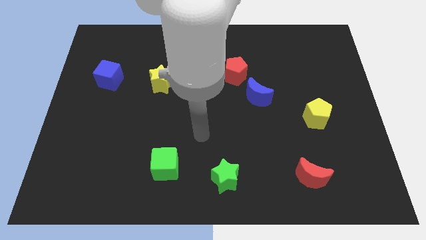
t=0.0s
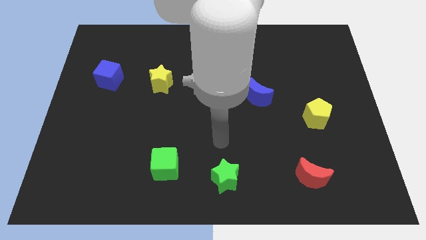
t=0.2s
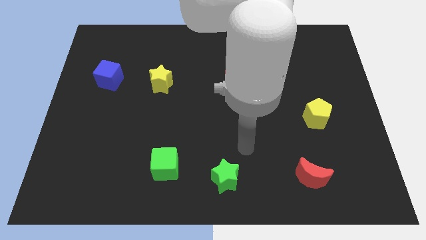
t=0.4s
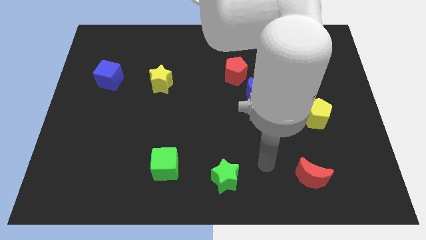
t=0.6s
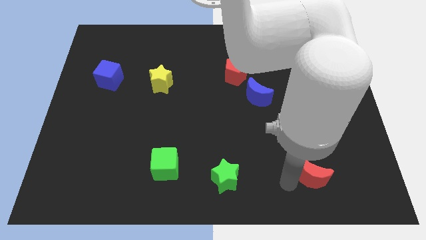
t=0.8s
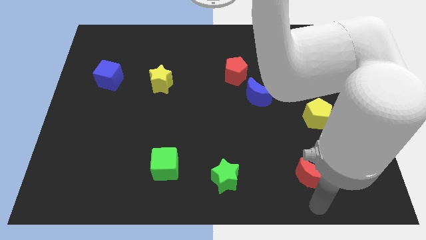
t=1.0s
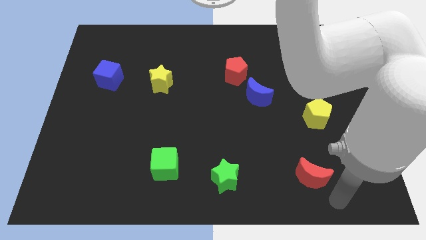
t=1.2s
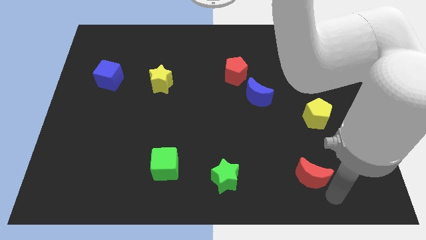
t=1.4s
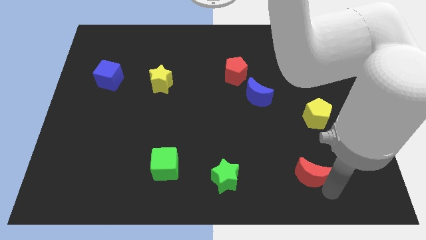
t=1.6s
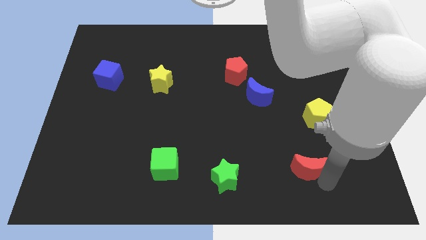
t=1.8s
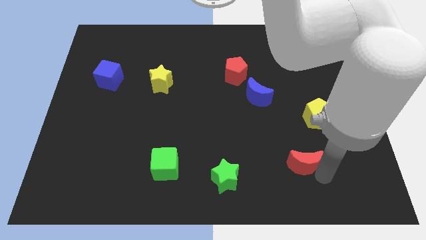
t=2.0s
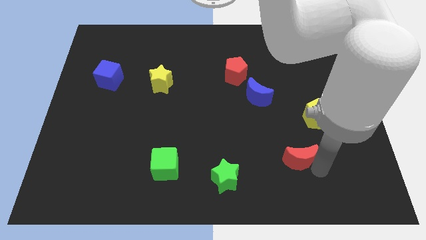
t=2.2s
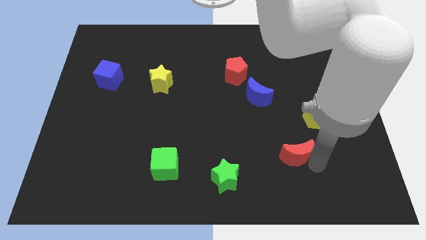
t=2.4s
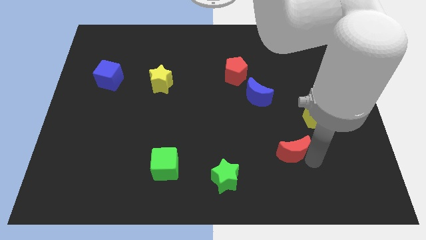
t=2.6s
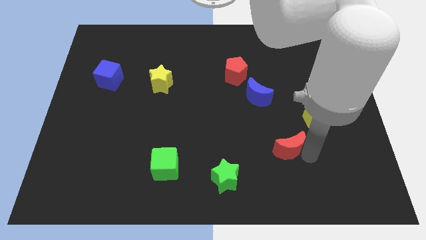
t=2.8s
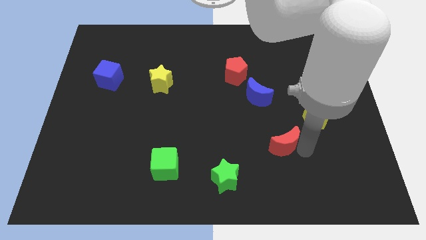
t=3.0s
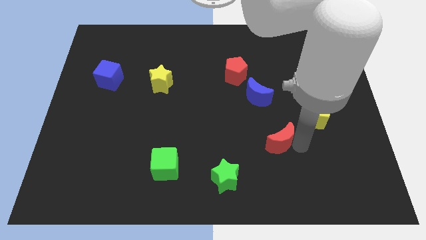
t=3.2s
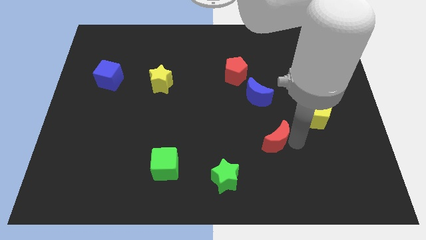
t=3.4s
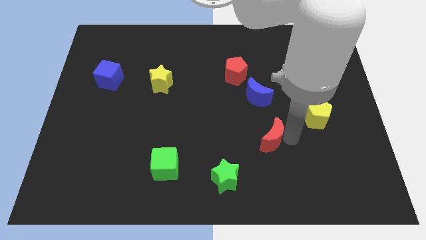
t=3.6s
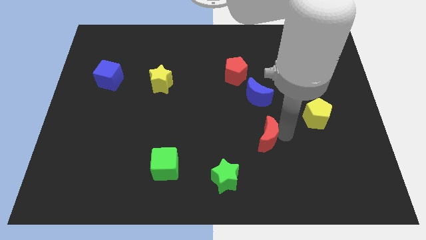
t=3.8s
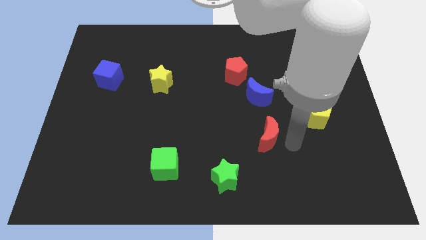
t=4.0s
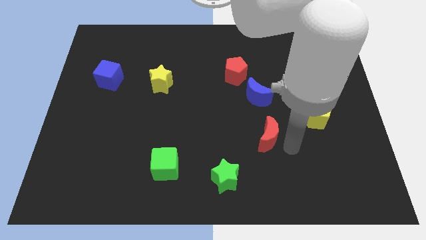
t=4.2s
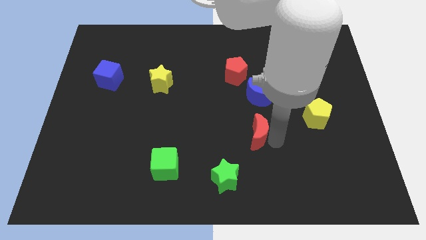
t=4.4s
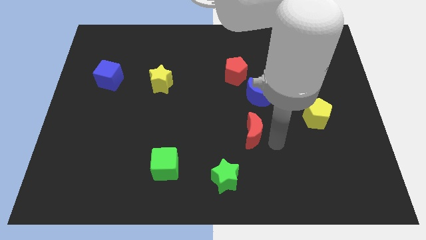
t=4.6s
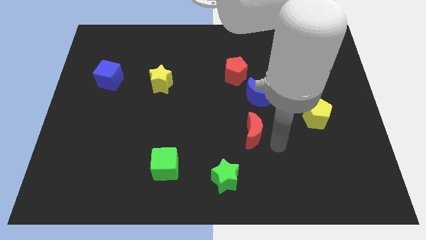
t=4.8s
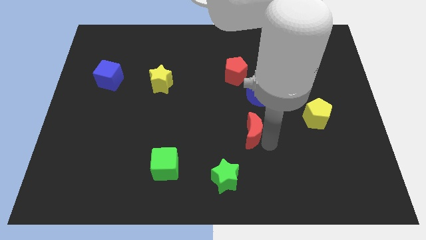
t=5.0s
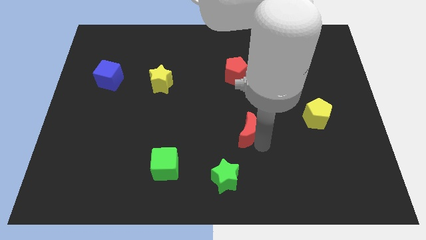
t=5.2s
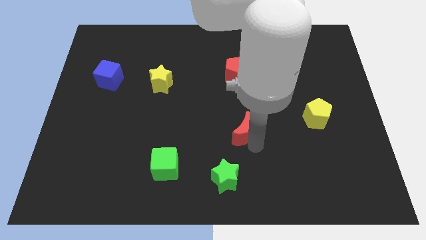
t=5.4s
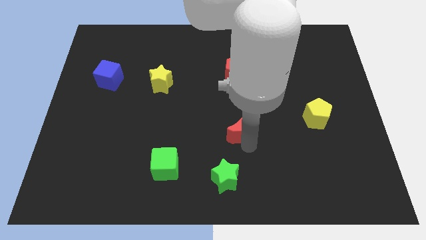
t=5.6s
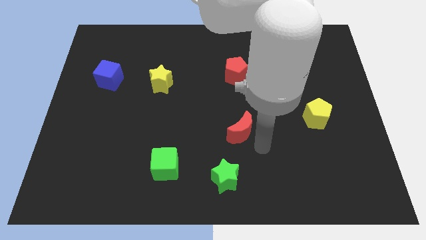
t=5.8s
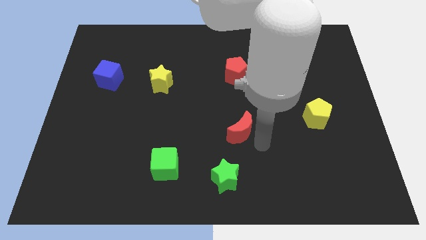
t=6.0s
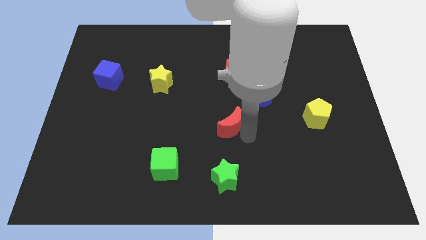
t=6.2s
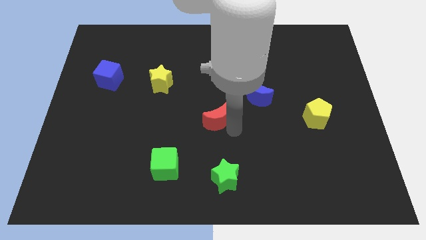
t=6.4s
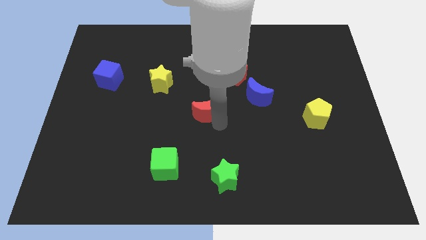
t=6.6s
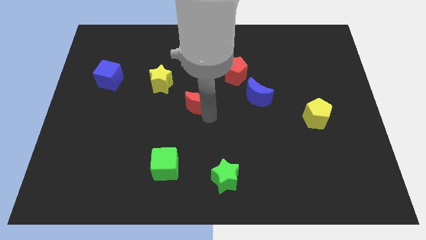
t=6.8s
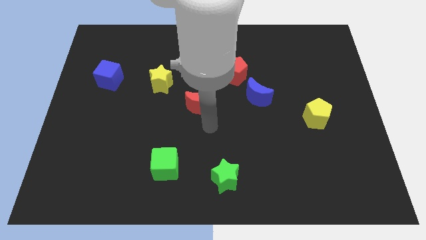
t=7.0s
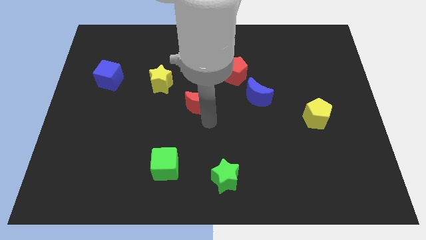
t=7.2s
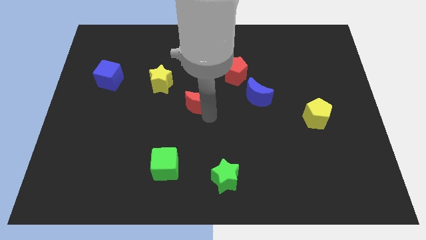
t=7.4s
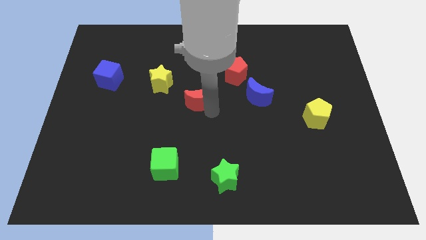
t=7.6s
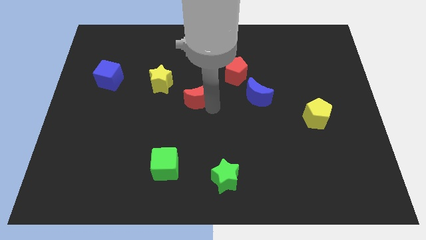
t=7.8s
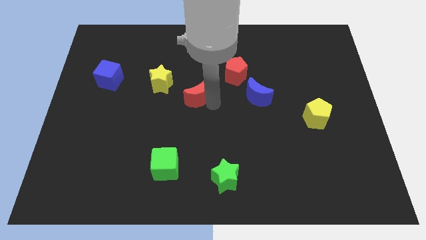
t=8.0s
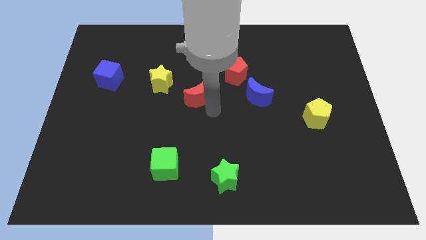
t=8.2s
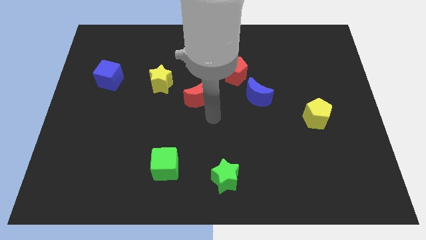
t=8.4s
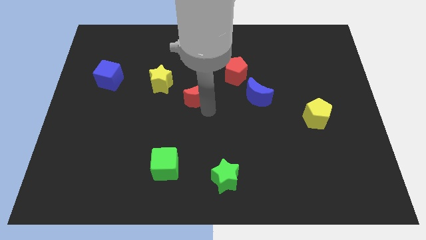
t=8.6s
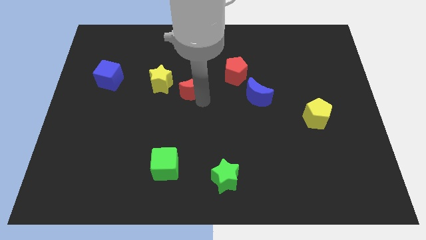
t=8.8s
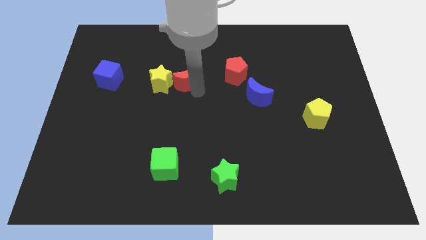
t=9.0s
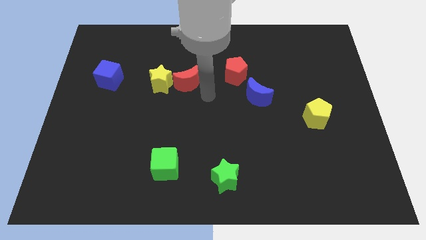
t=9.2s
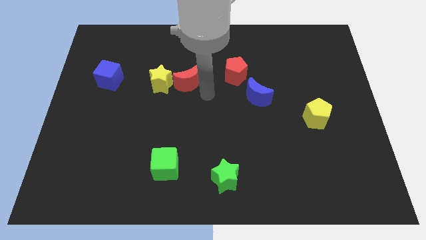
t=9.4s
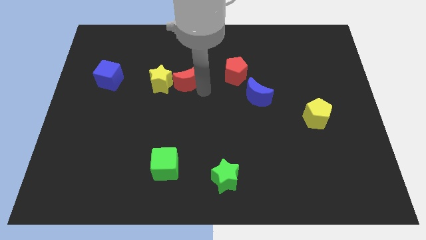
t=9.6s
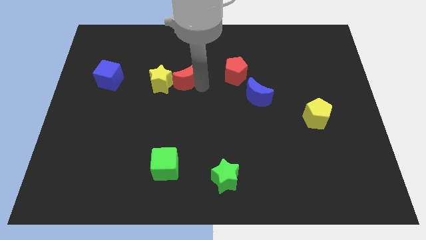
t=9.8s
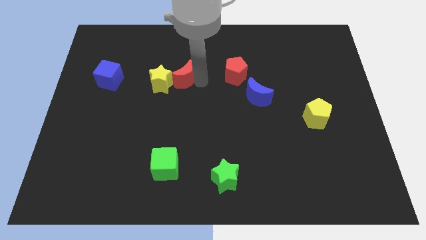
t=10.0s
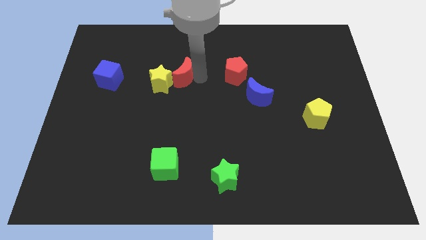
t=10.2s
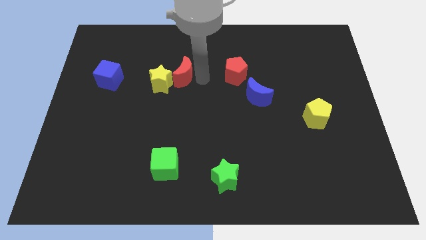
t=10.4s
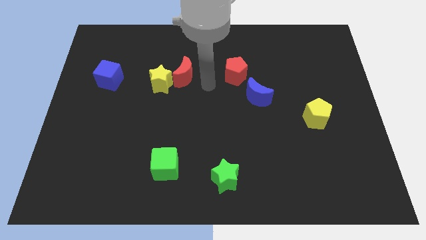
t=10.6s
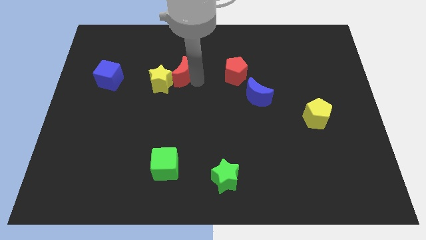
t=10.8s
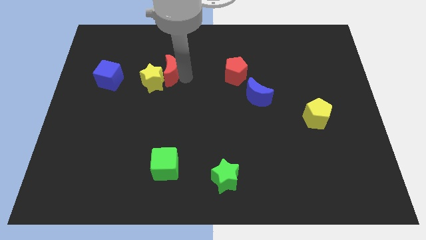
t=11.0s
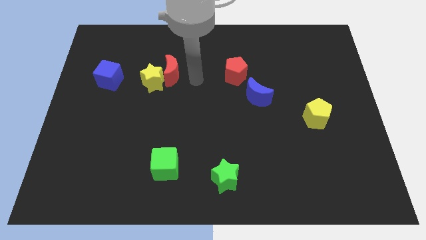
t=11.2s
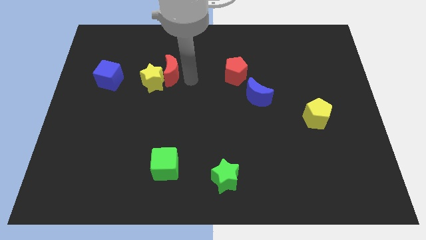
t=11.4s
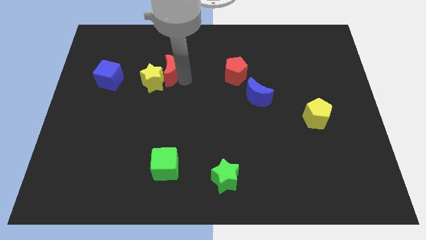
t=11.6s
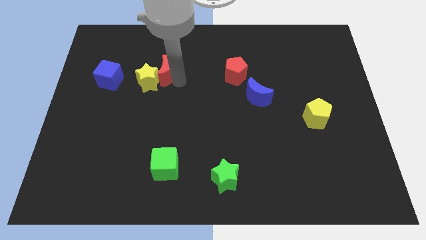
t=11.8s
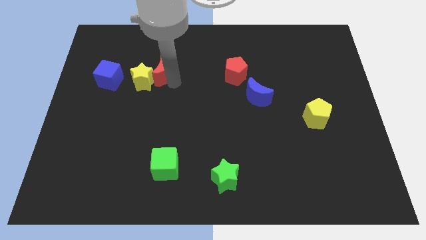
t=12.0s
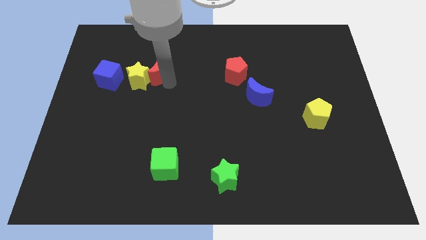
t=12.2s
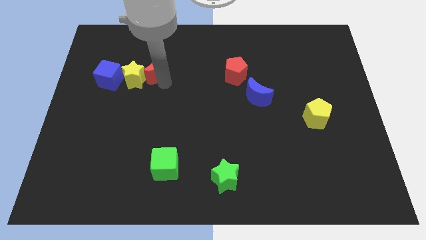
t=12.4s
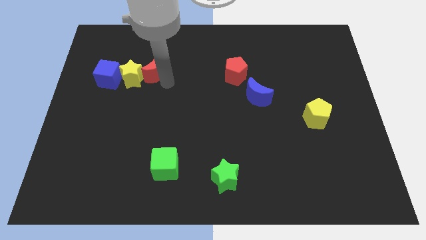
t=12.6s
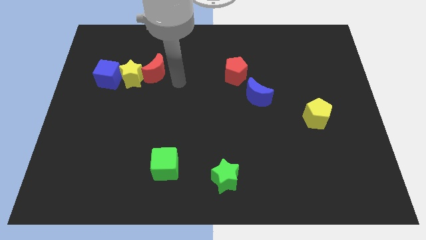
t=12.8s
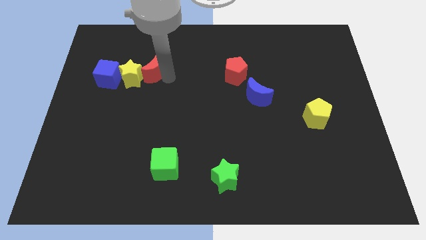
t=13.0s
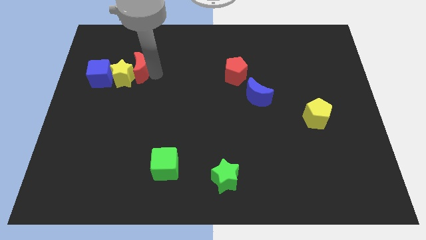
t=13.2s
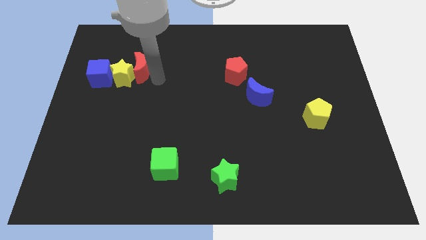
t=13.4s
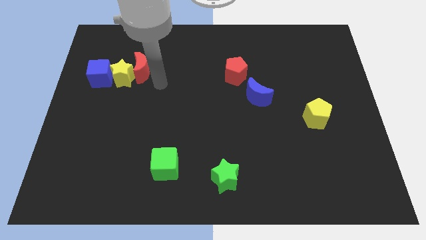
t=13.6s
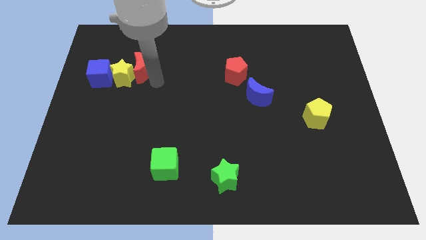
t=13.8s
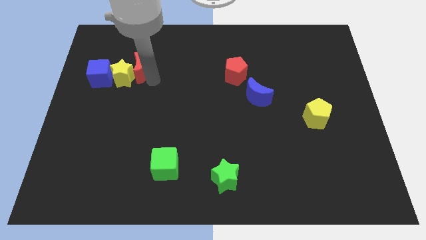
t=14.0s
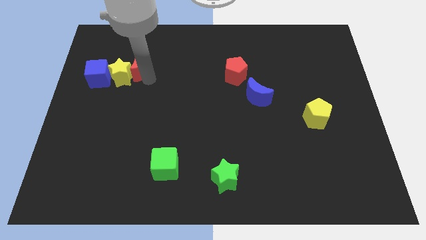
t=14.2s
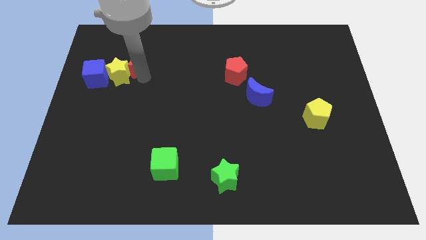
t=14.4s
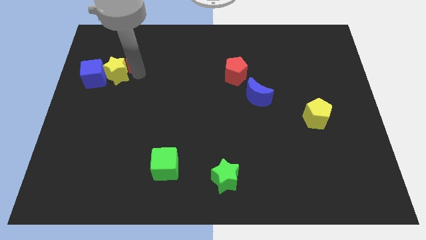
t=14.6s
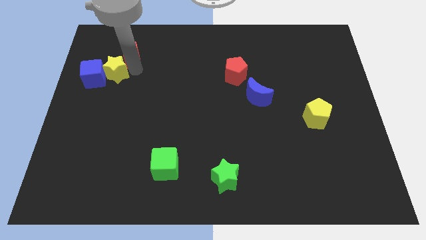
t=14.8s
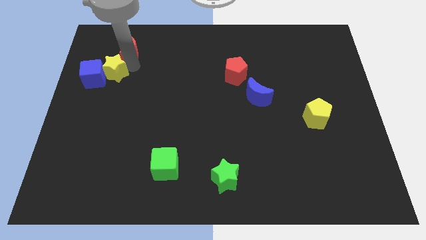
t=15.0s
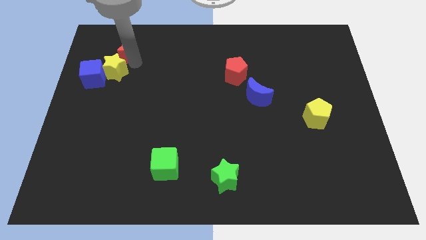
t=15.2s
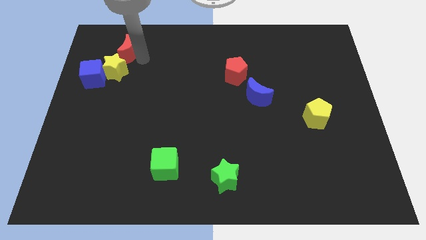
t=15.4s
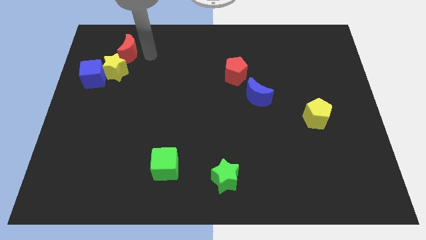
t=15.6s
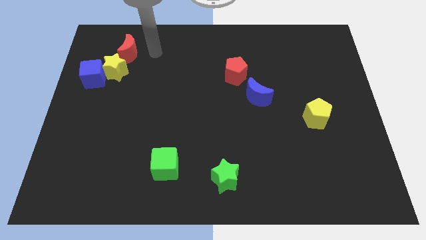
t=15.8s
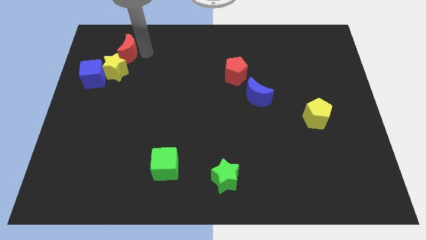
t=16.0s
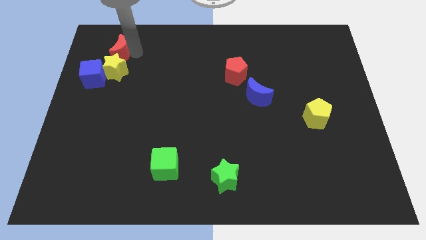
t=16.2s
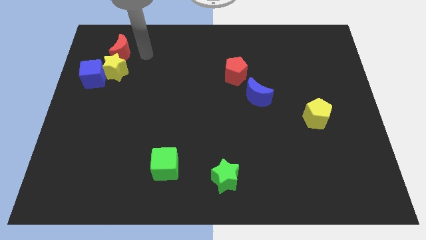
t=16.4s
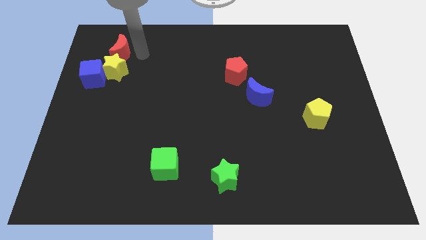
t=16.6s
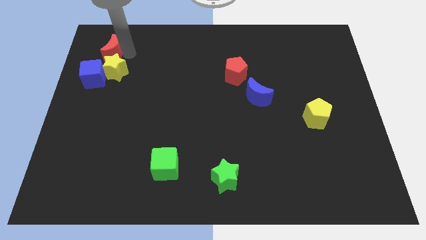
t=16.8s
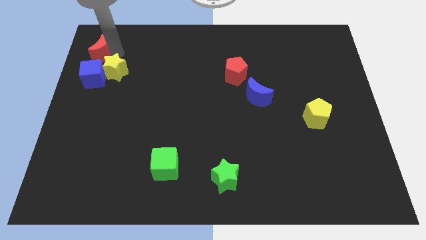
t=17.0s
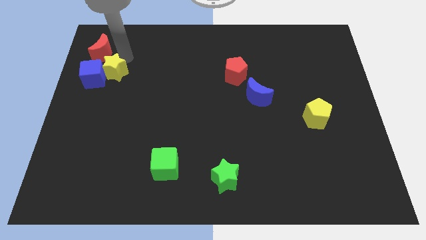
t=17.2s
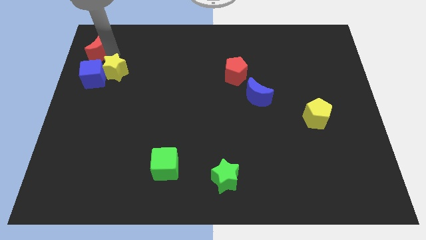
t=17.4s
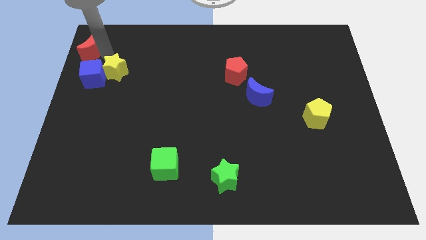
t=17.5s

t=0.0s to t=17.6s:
move the red moon to the top left corner
